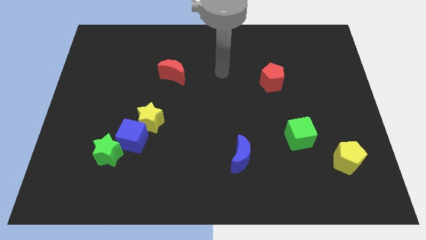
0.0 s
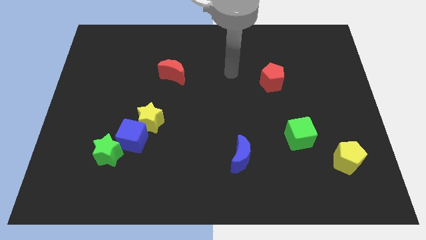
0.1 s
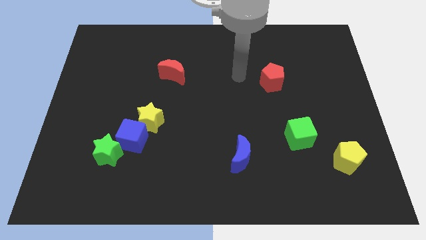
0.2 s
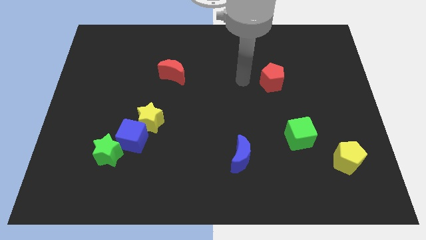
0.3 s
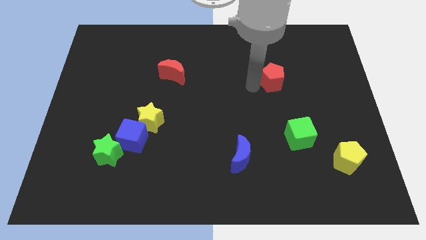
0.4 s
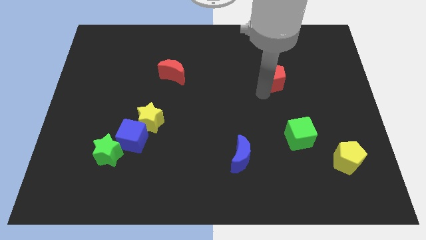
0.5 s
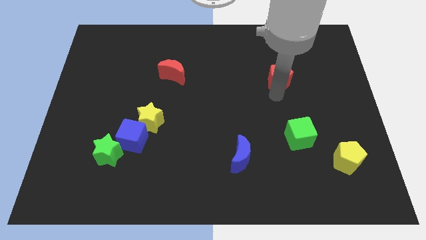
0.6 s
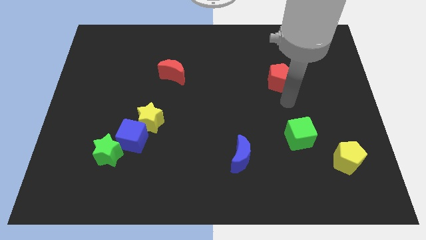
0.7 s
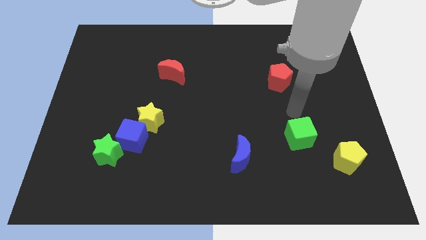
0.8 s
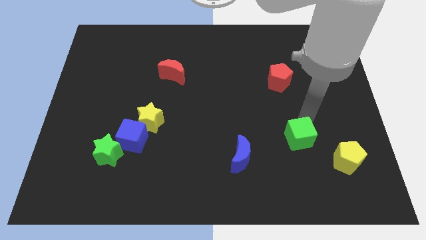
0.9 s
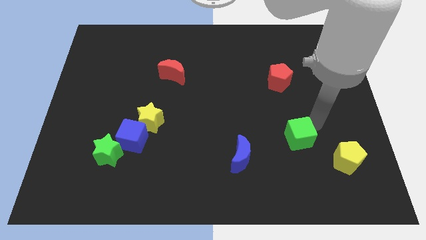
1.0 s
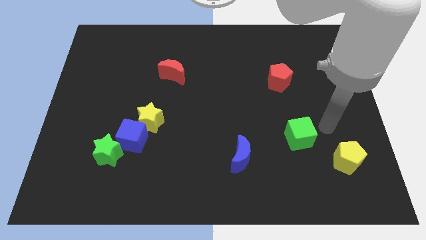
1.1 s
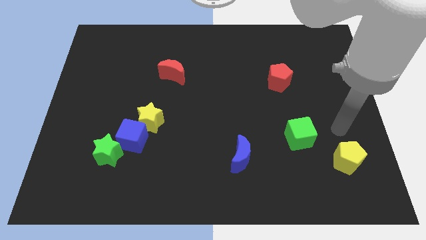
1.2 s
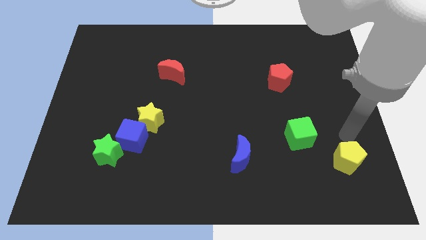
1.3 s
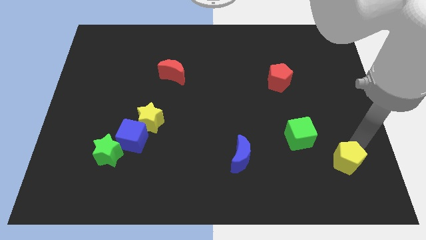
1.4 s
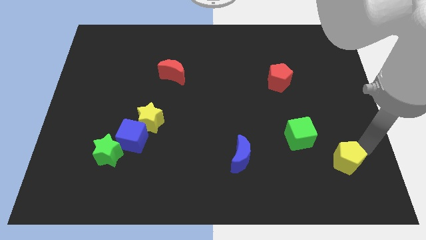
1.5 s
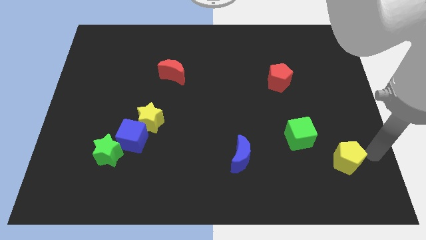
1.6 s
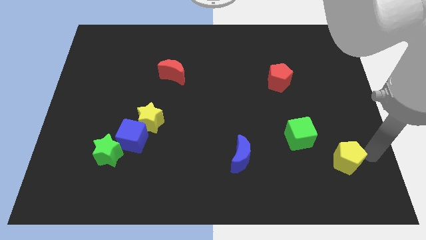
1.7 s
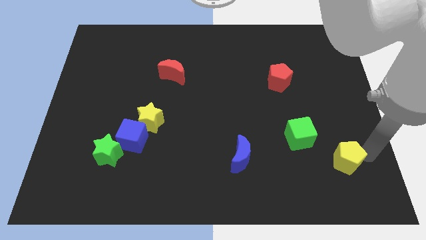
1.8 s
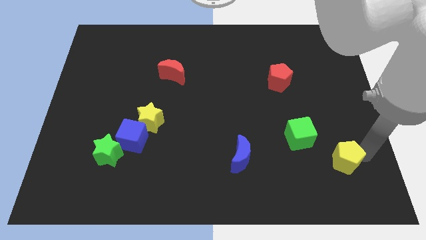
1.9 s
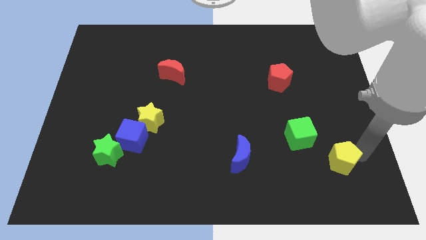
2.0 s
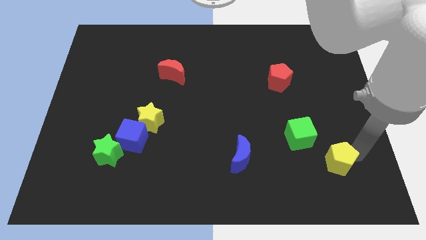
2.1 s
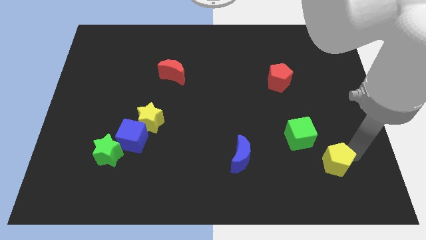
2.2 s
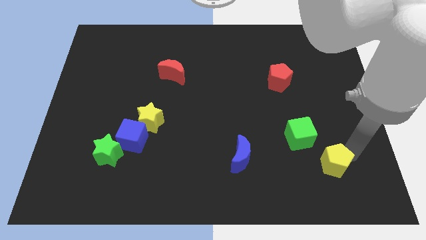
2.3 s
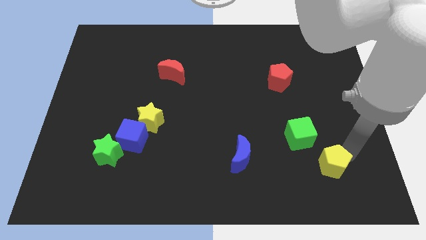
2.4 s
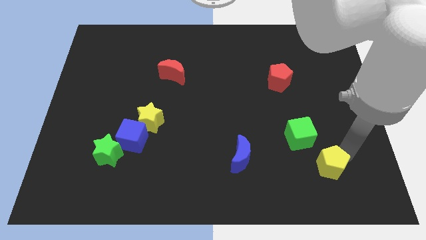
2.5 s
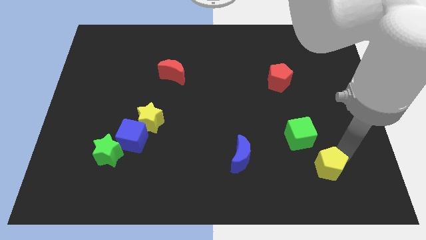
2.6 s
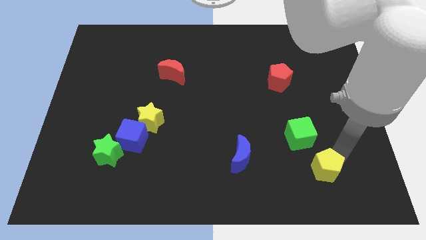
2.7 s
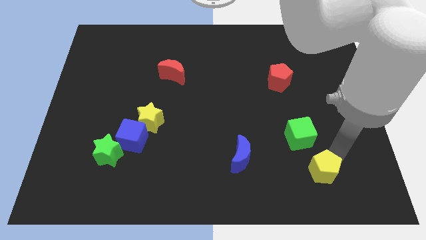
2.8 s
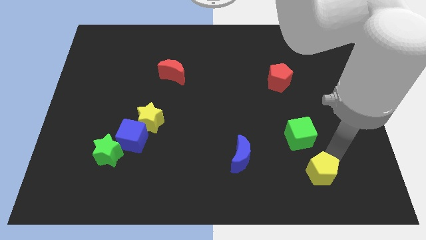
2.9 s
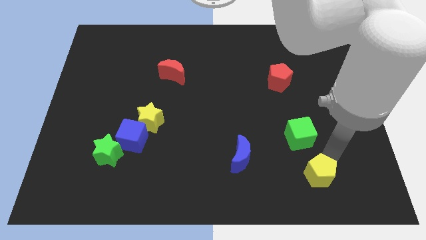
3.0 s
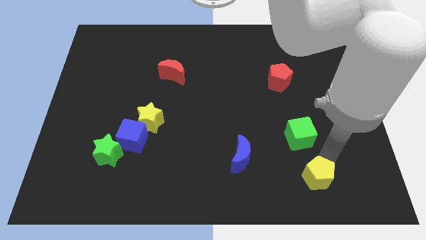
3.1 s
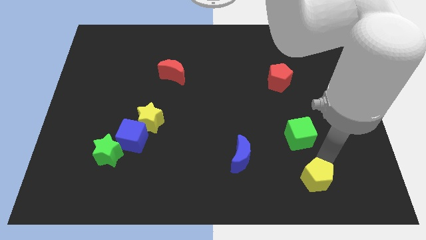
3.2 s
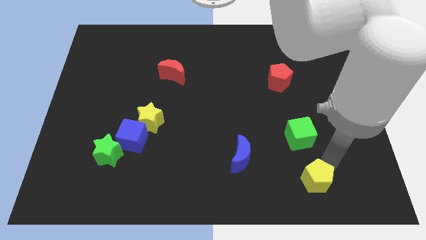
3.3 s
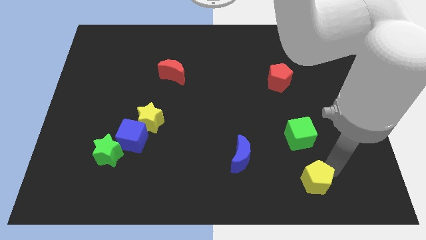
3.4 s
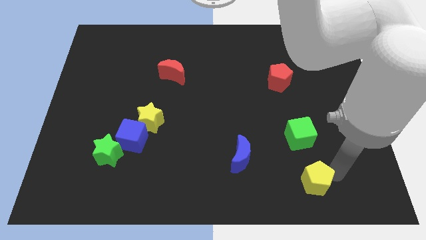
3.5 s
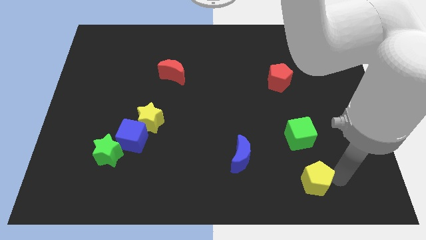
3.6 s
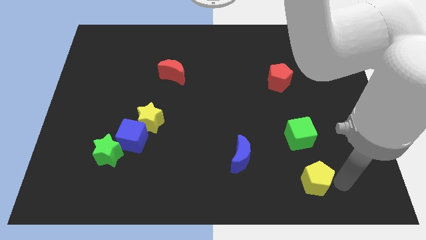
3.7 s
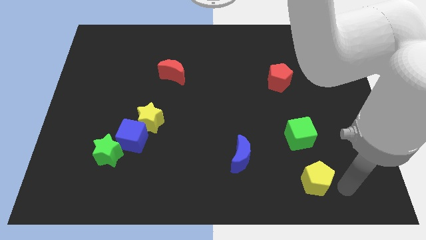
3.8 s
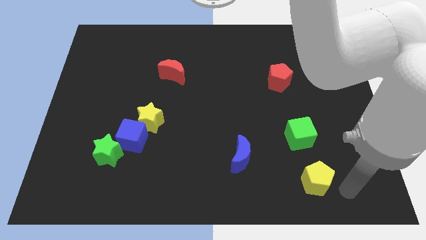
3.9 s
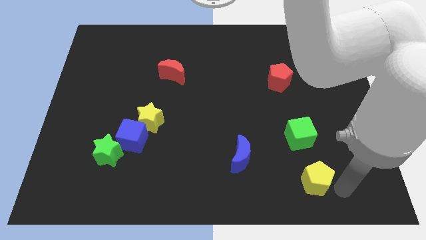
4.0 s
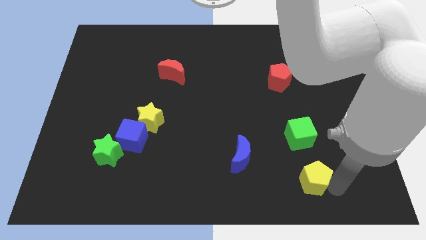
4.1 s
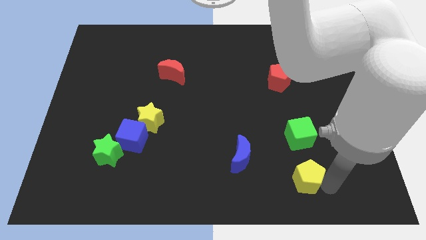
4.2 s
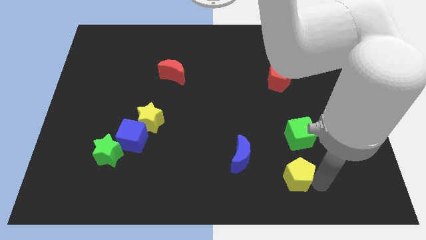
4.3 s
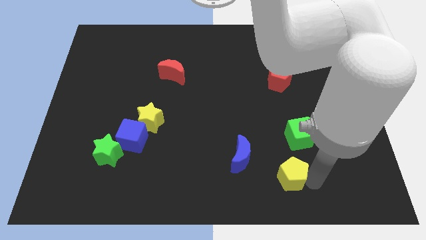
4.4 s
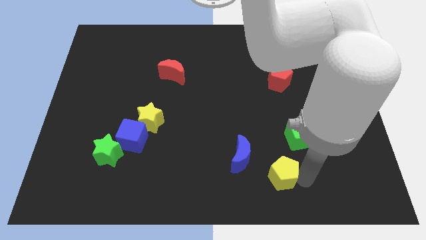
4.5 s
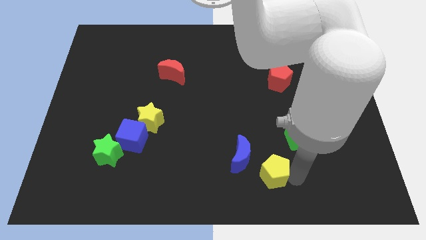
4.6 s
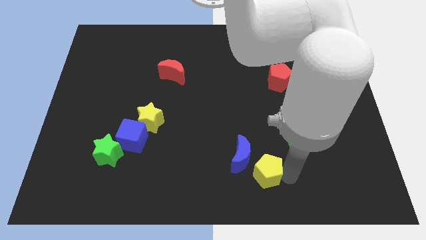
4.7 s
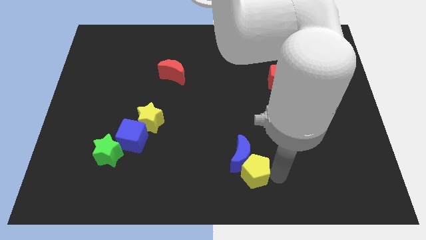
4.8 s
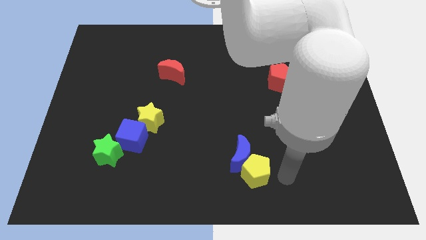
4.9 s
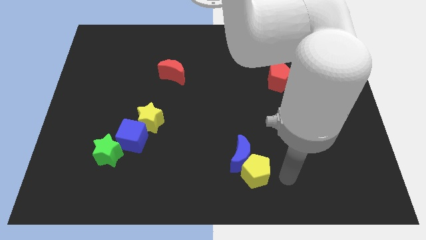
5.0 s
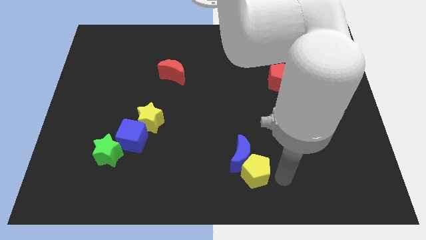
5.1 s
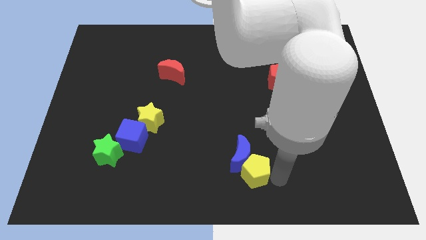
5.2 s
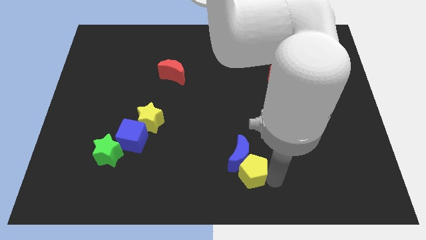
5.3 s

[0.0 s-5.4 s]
push the yellow pentagon left

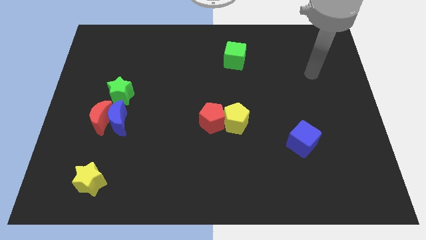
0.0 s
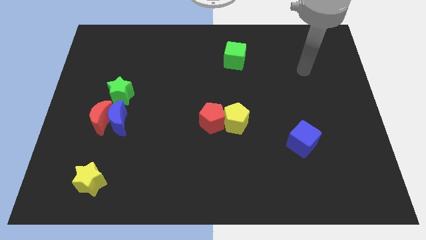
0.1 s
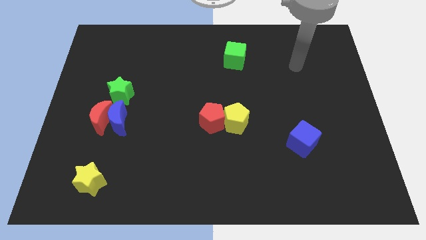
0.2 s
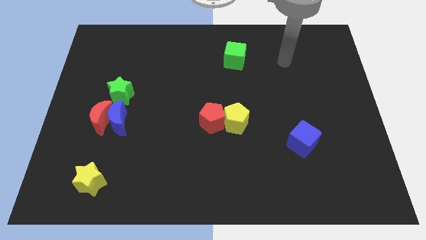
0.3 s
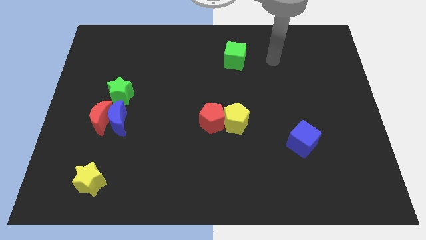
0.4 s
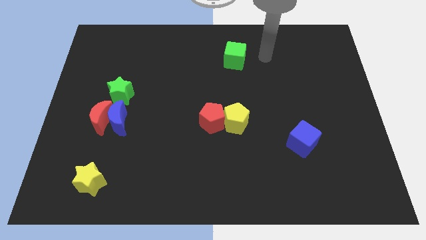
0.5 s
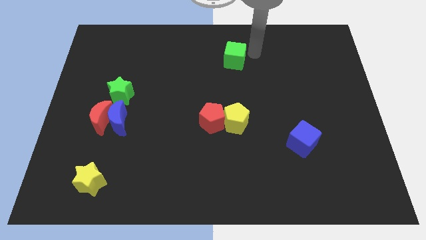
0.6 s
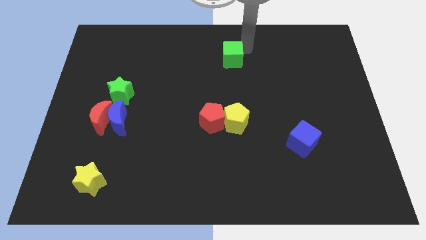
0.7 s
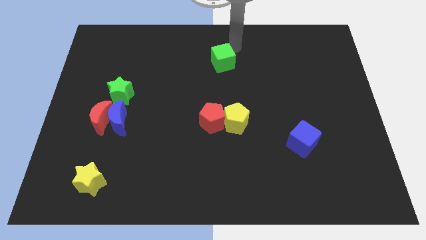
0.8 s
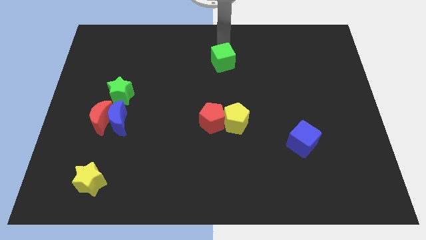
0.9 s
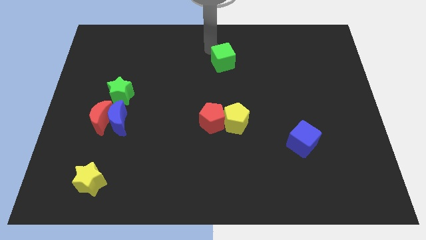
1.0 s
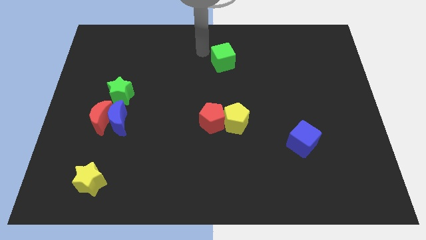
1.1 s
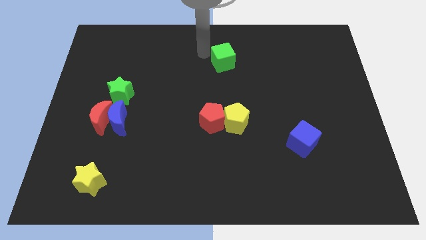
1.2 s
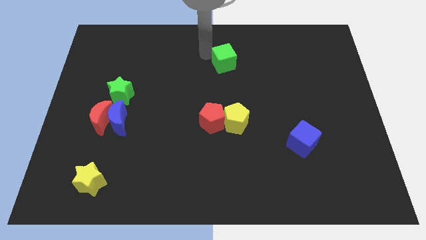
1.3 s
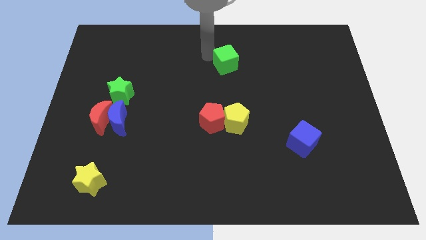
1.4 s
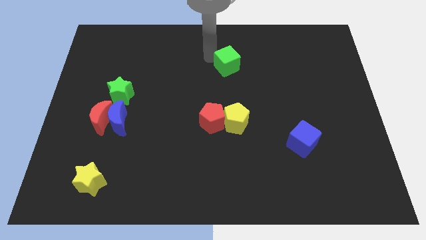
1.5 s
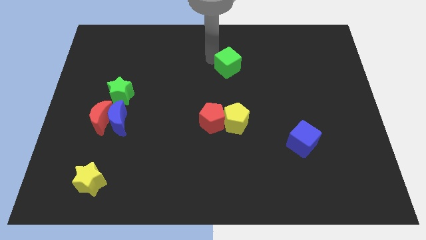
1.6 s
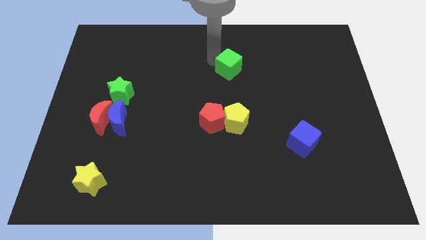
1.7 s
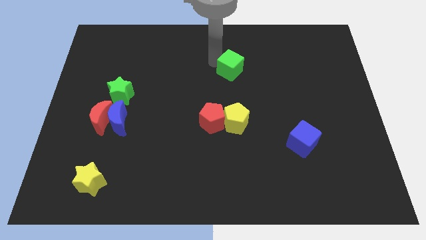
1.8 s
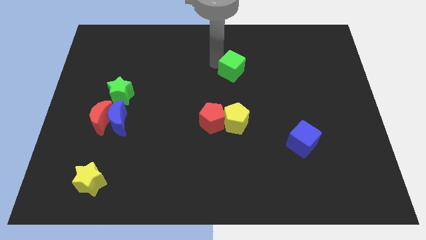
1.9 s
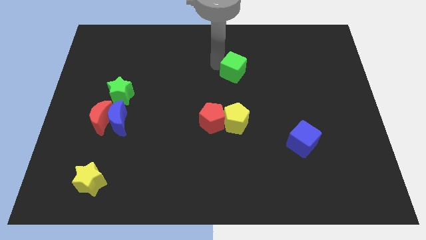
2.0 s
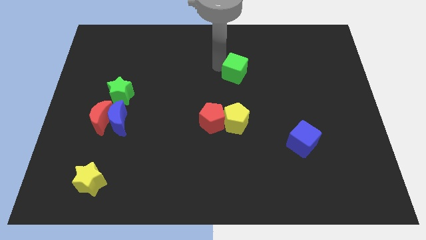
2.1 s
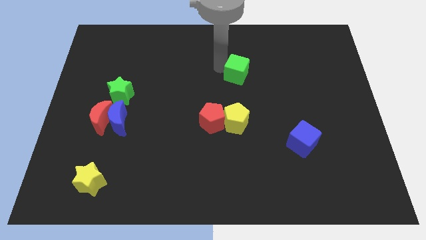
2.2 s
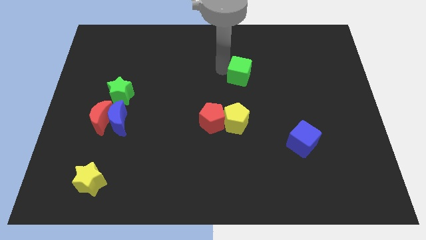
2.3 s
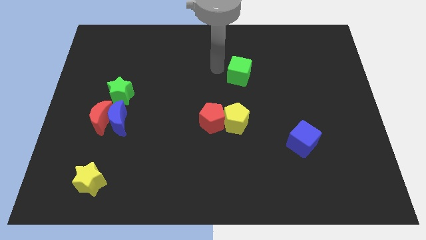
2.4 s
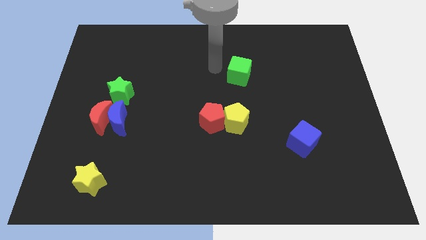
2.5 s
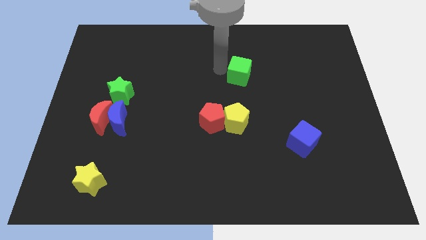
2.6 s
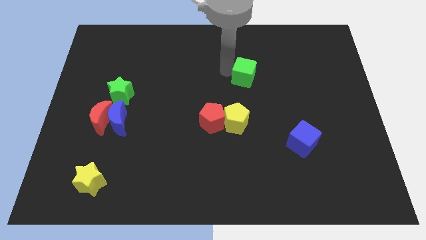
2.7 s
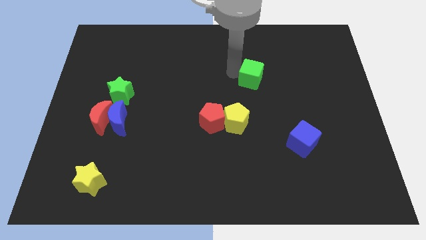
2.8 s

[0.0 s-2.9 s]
move the green cube down and then right somewhat
